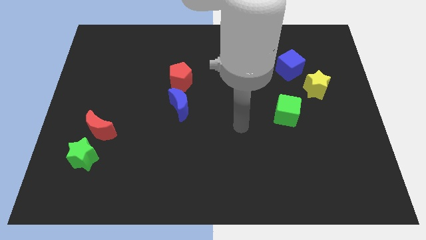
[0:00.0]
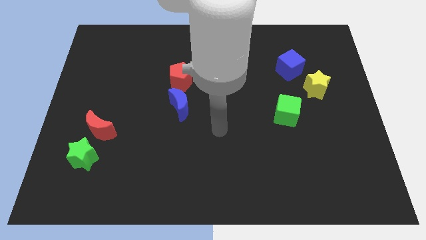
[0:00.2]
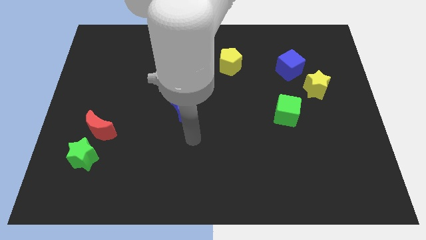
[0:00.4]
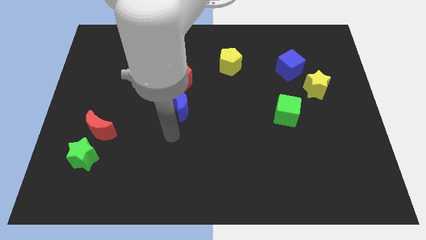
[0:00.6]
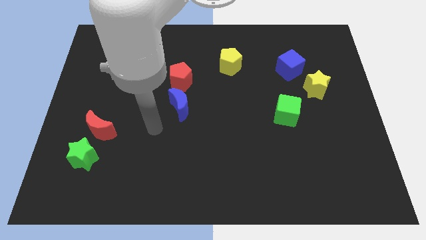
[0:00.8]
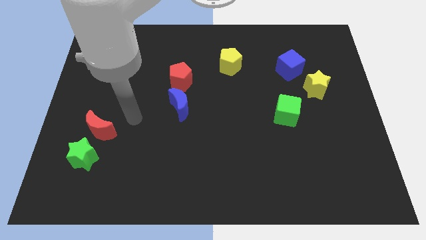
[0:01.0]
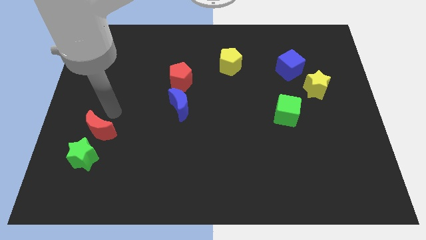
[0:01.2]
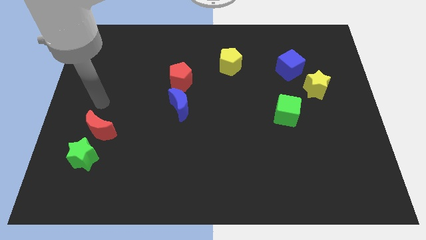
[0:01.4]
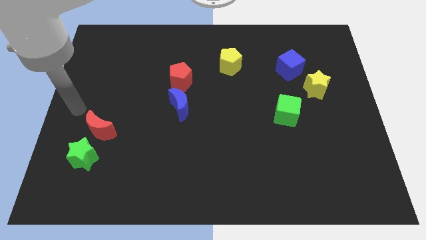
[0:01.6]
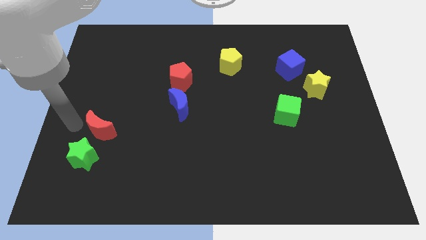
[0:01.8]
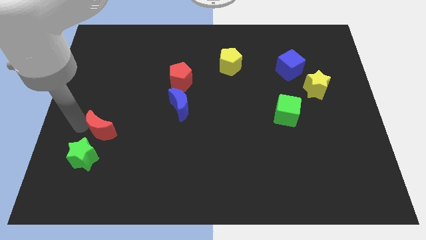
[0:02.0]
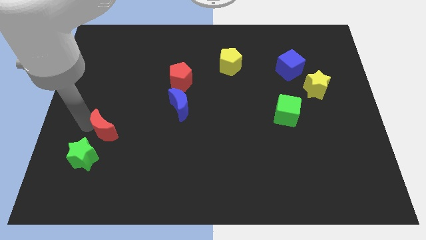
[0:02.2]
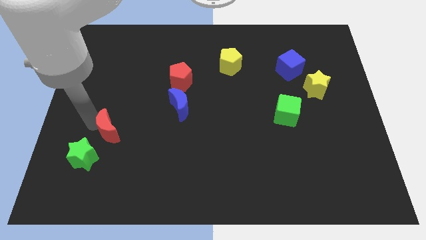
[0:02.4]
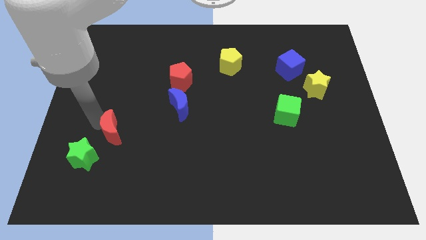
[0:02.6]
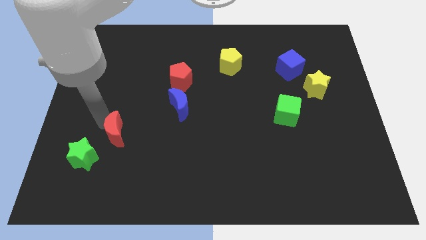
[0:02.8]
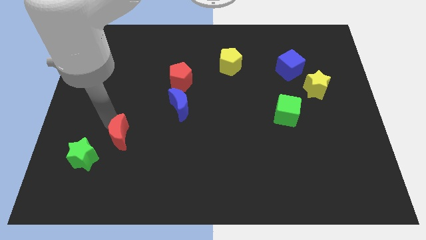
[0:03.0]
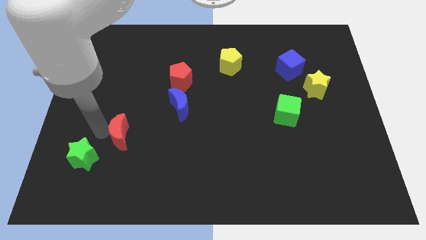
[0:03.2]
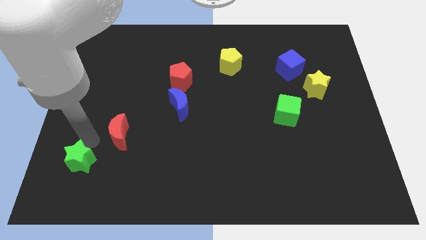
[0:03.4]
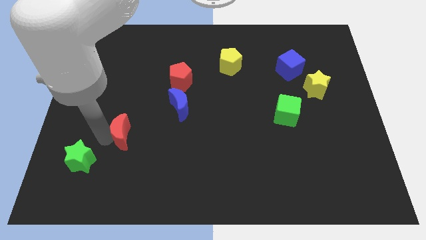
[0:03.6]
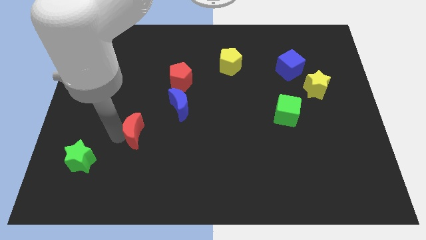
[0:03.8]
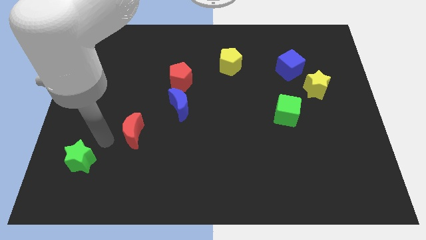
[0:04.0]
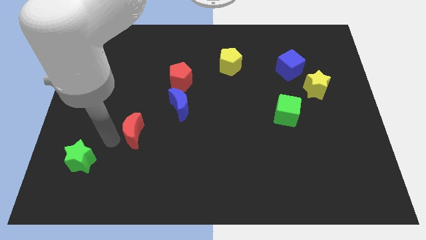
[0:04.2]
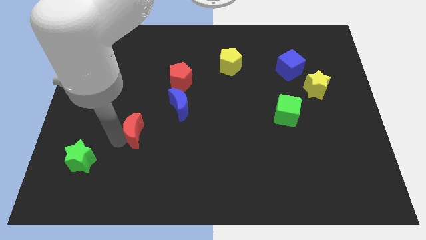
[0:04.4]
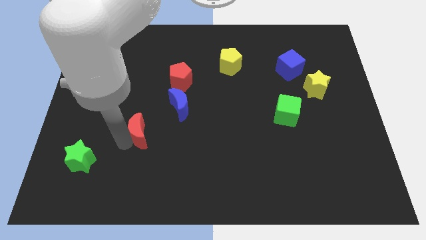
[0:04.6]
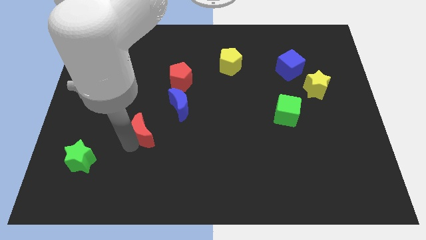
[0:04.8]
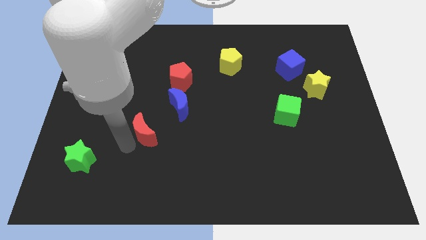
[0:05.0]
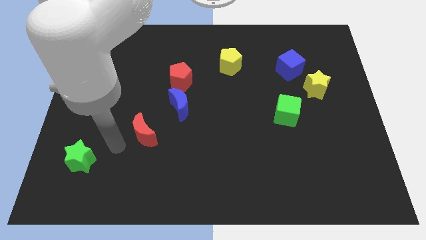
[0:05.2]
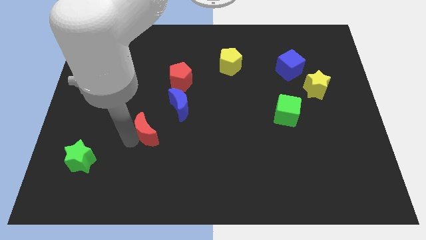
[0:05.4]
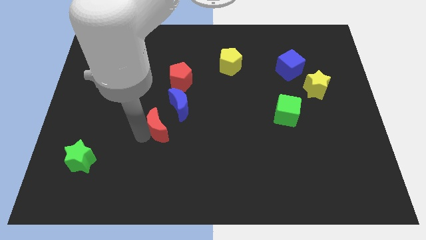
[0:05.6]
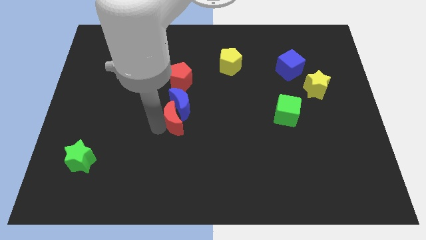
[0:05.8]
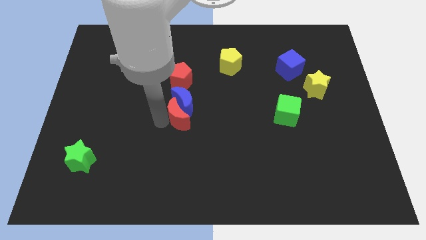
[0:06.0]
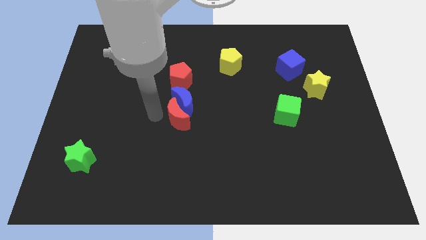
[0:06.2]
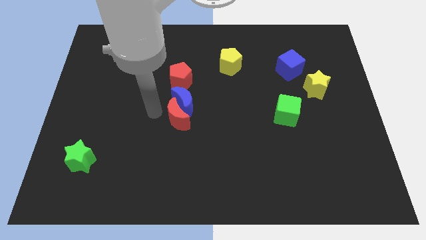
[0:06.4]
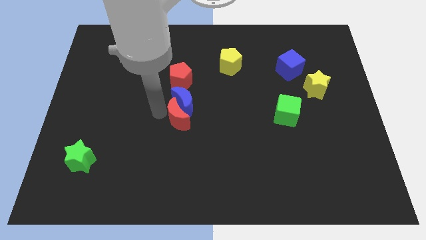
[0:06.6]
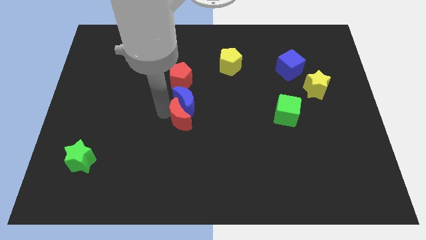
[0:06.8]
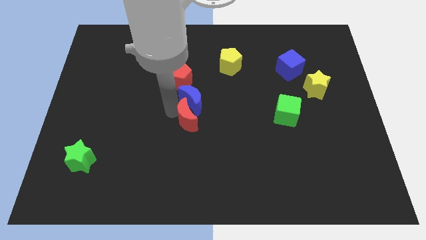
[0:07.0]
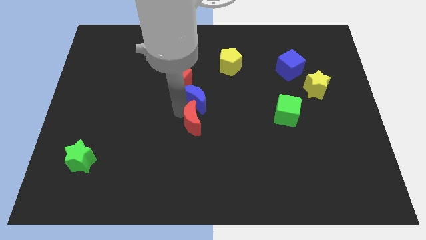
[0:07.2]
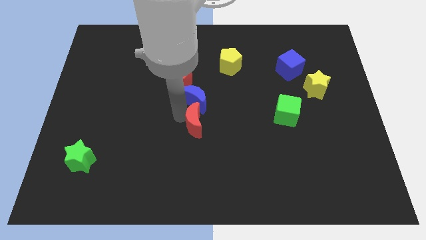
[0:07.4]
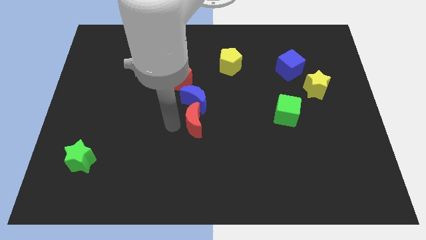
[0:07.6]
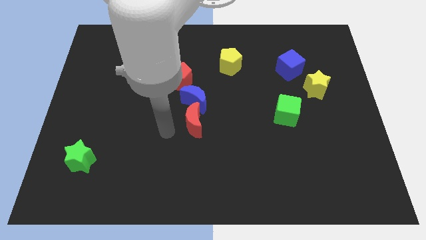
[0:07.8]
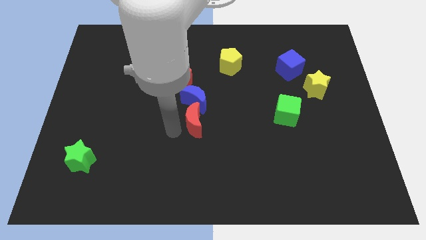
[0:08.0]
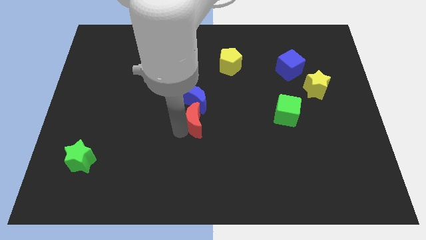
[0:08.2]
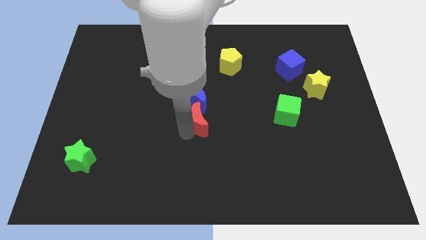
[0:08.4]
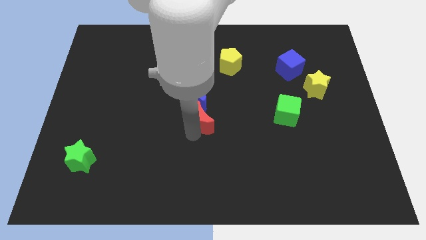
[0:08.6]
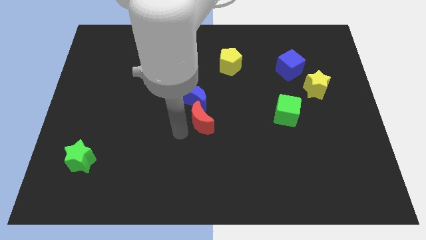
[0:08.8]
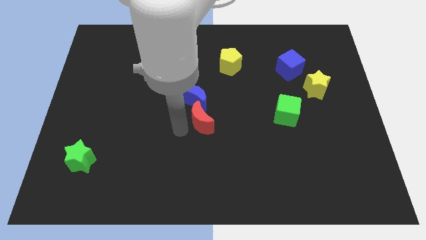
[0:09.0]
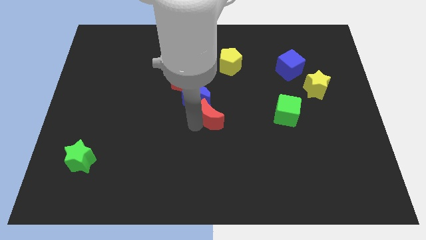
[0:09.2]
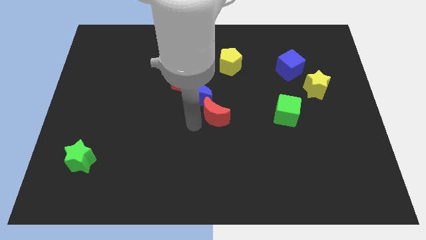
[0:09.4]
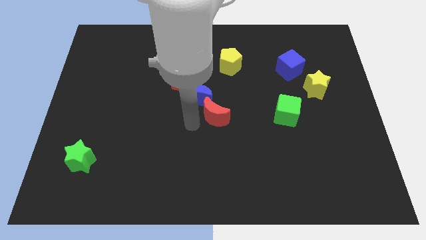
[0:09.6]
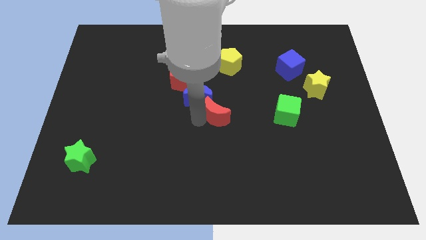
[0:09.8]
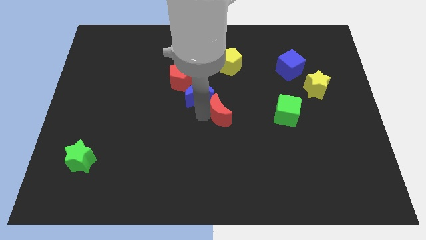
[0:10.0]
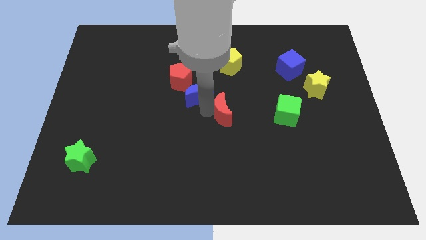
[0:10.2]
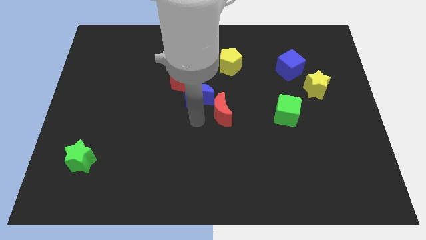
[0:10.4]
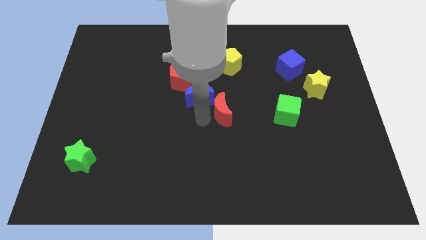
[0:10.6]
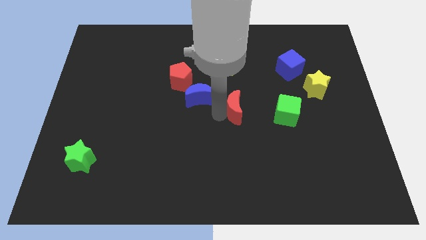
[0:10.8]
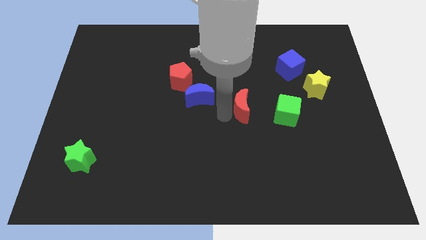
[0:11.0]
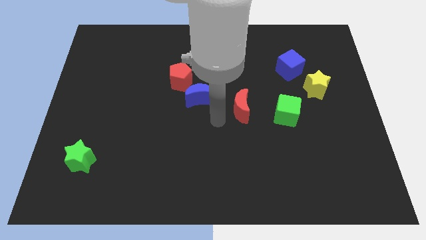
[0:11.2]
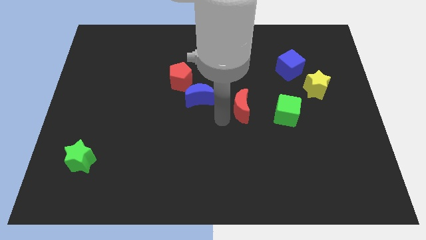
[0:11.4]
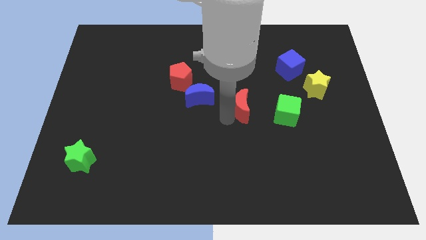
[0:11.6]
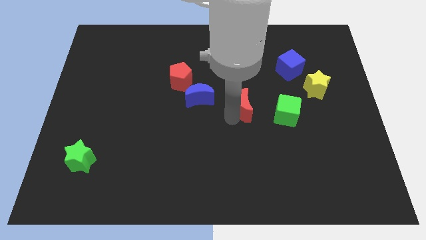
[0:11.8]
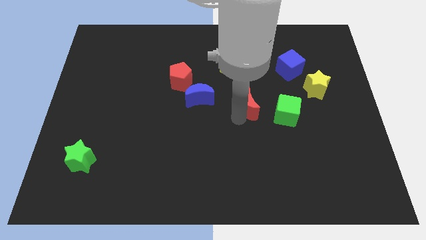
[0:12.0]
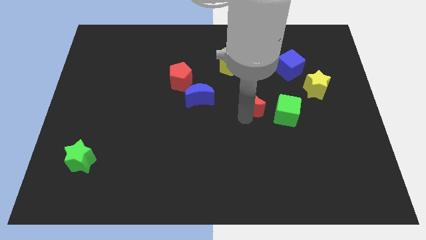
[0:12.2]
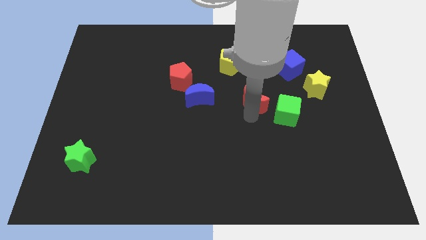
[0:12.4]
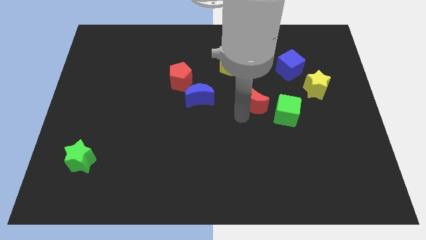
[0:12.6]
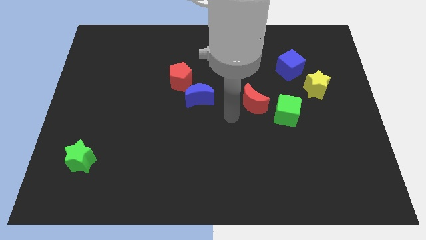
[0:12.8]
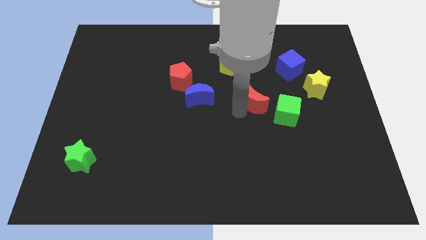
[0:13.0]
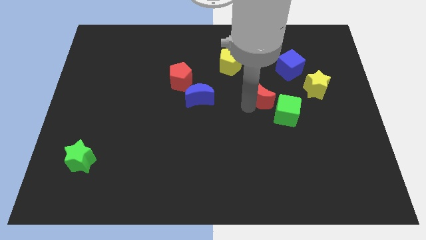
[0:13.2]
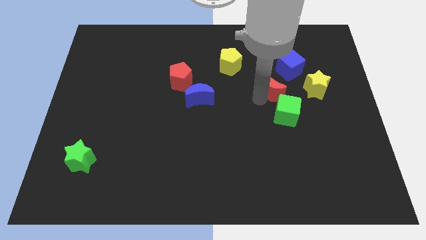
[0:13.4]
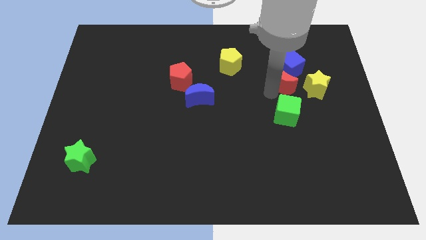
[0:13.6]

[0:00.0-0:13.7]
put the red moon towards the blue cube

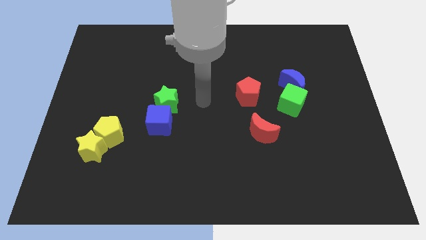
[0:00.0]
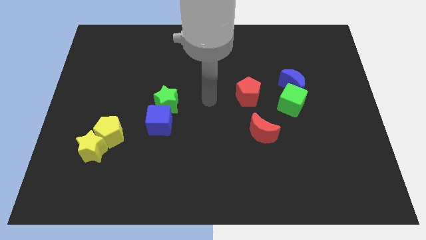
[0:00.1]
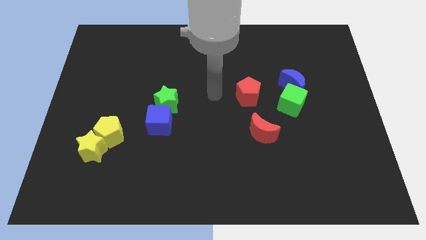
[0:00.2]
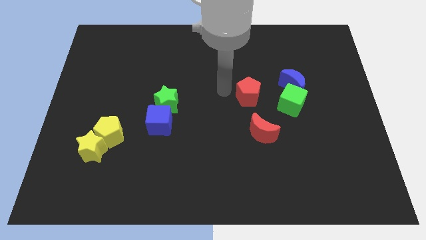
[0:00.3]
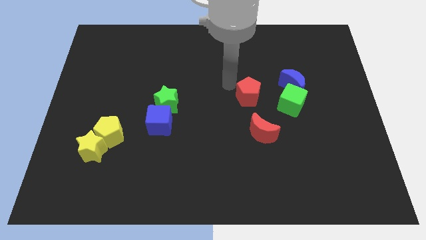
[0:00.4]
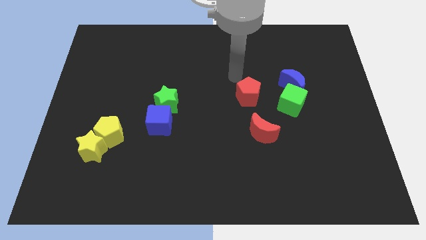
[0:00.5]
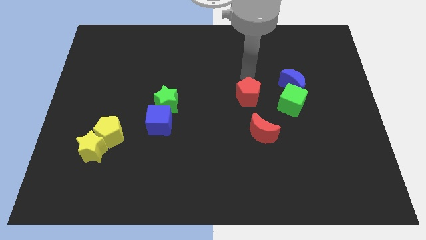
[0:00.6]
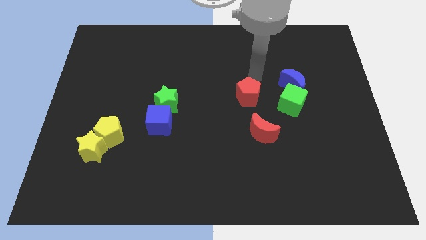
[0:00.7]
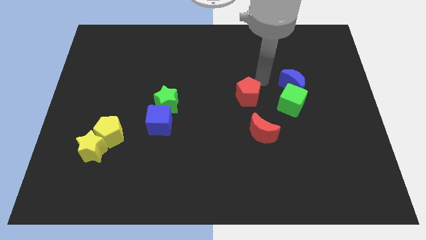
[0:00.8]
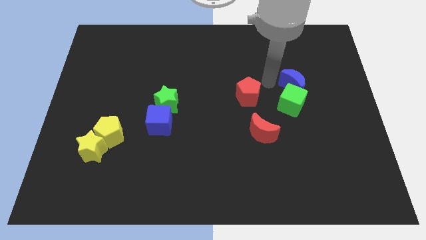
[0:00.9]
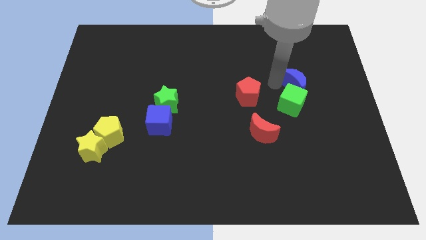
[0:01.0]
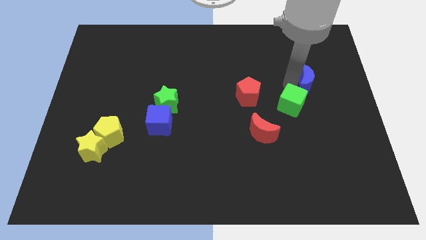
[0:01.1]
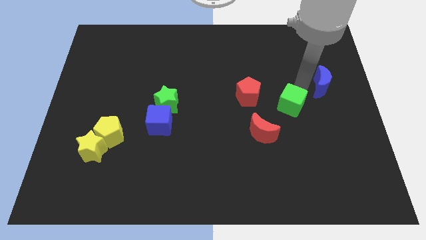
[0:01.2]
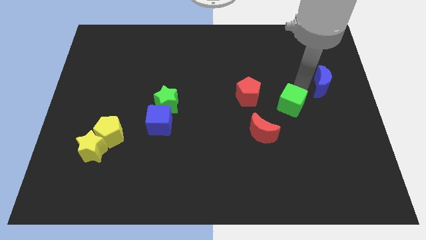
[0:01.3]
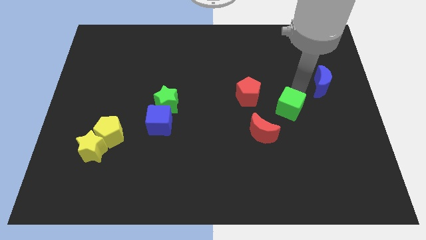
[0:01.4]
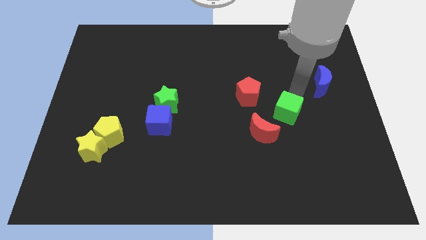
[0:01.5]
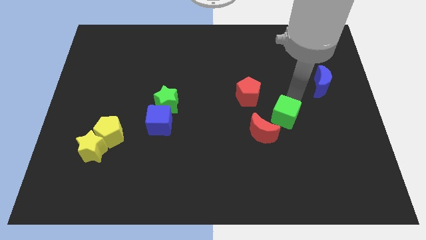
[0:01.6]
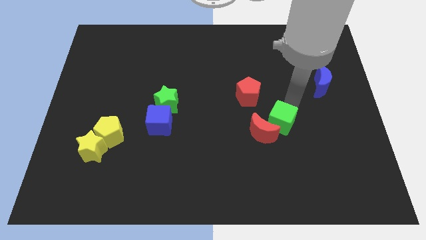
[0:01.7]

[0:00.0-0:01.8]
push the green cube next to the red moon
